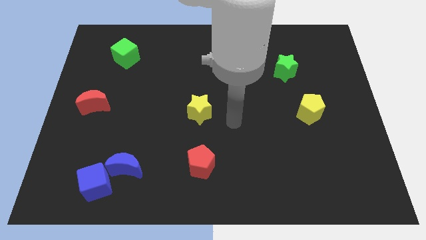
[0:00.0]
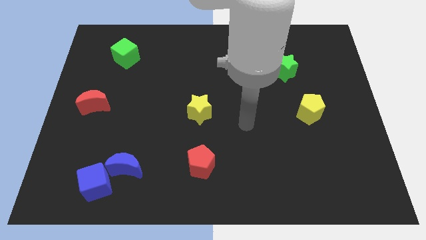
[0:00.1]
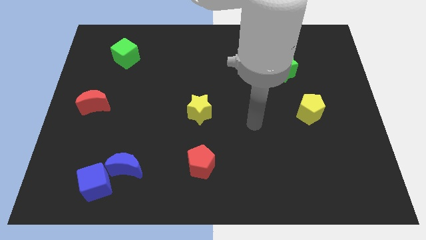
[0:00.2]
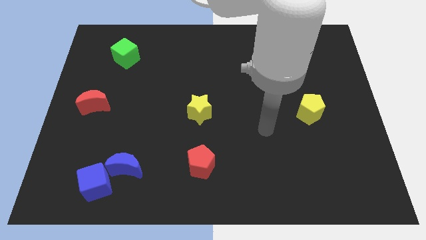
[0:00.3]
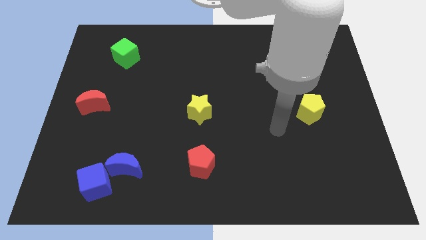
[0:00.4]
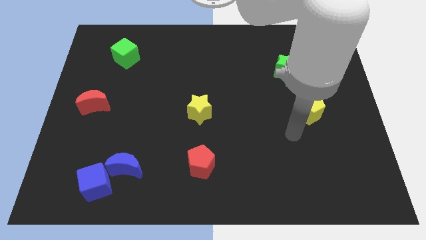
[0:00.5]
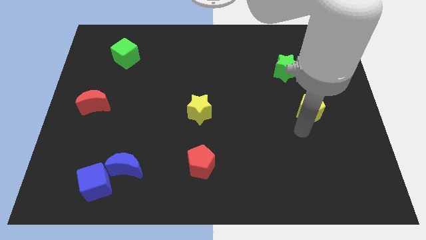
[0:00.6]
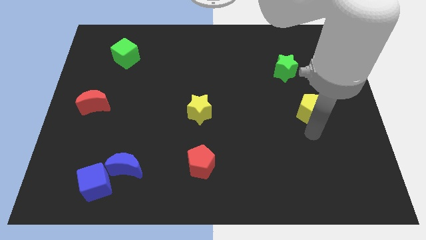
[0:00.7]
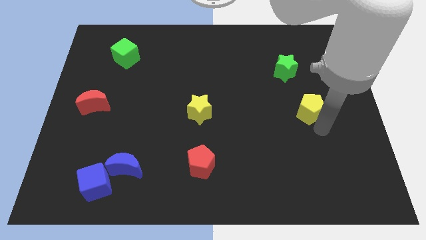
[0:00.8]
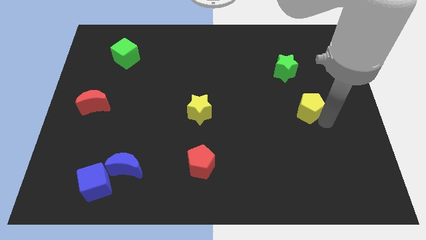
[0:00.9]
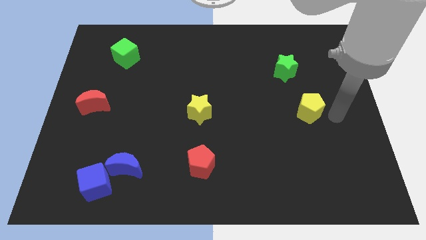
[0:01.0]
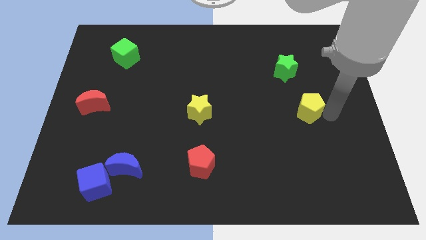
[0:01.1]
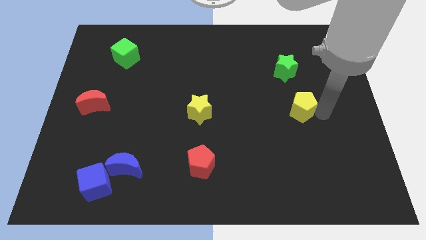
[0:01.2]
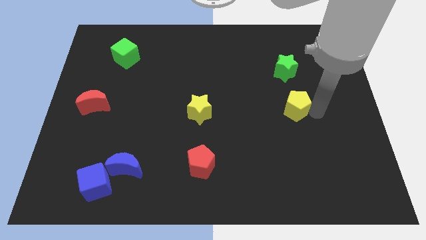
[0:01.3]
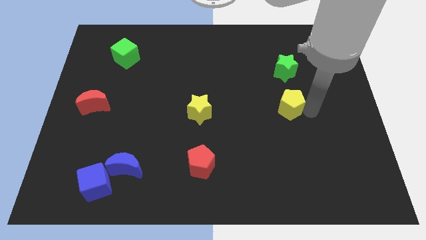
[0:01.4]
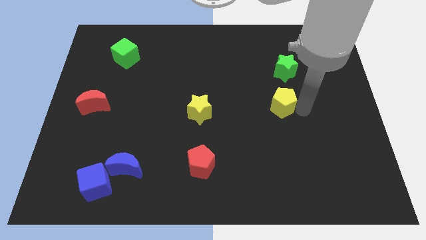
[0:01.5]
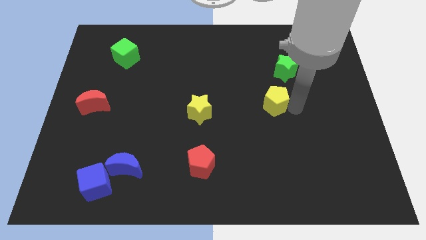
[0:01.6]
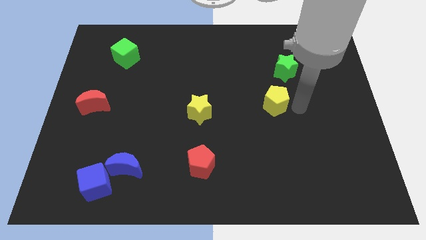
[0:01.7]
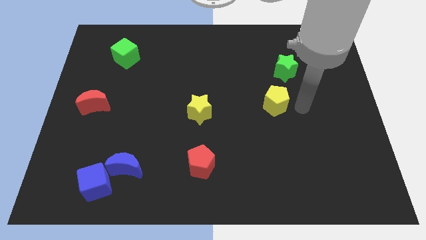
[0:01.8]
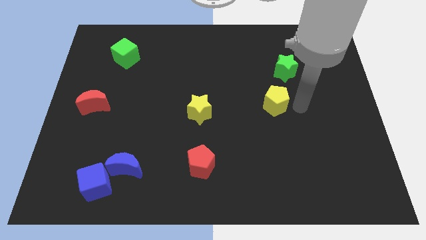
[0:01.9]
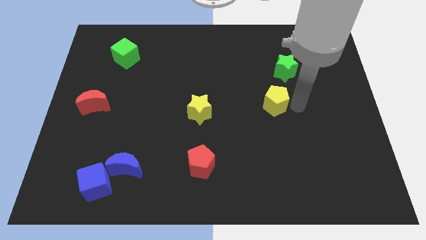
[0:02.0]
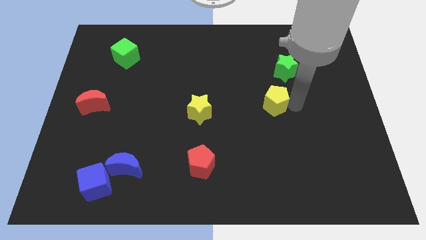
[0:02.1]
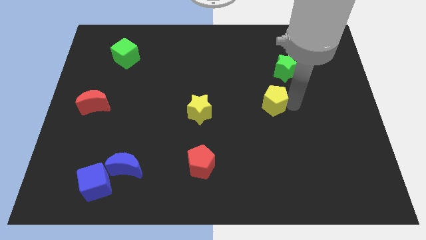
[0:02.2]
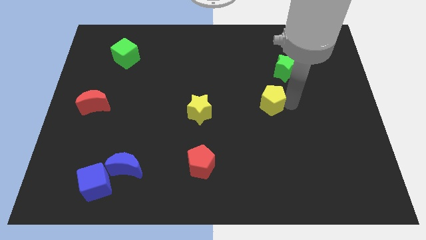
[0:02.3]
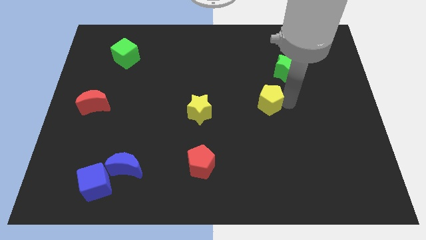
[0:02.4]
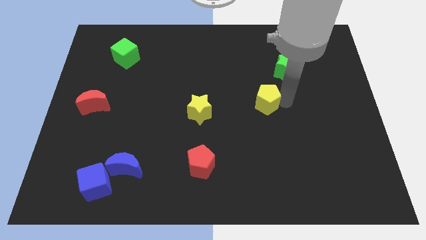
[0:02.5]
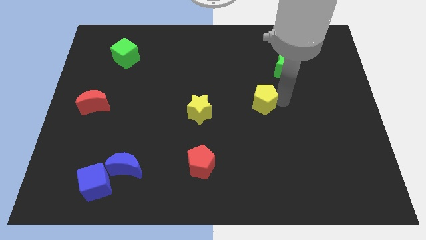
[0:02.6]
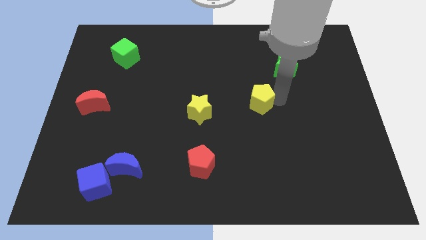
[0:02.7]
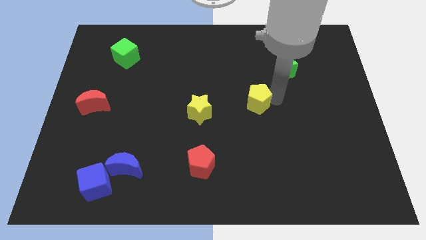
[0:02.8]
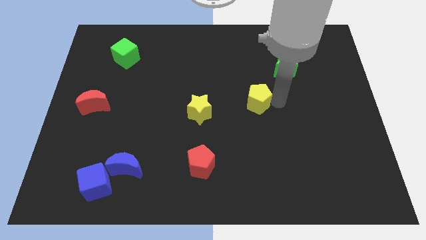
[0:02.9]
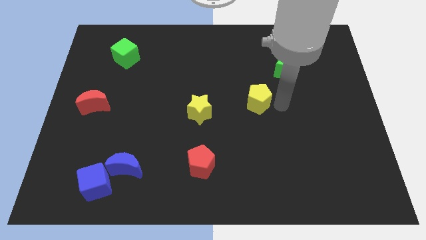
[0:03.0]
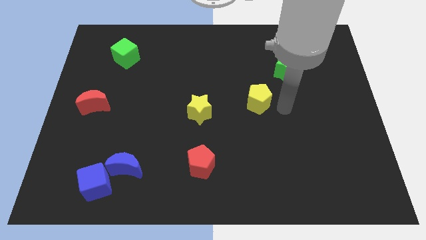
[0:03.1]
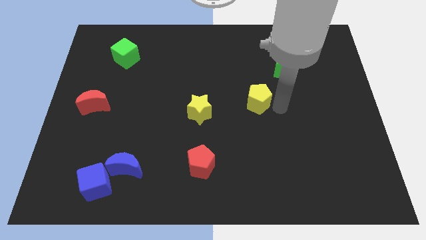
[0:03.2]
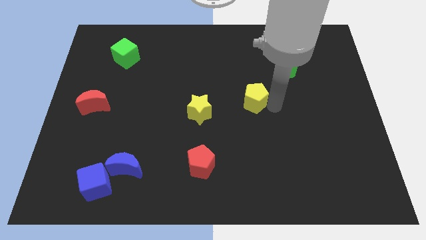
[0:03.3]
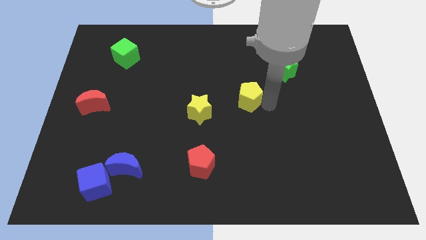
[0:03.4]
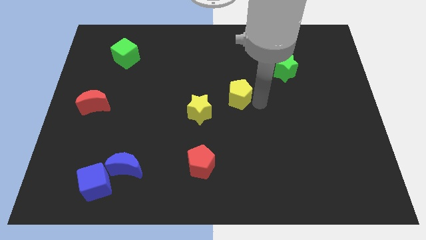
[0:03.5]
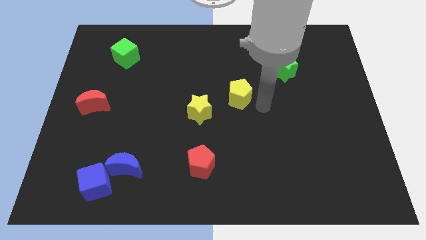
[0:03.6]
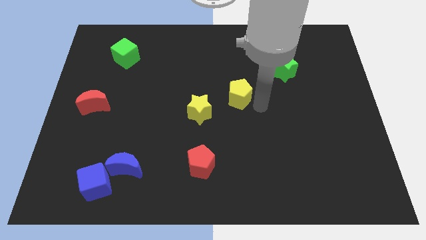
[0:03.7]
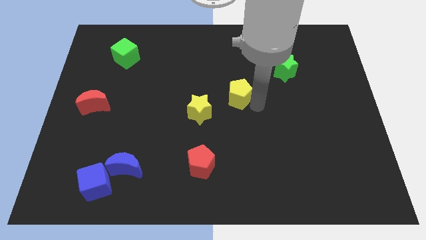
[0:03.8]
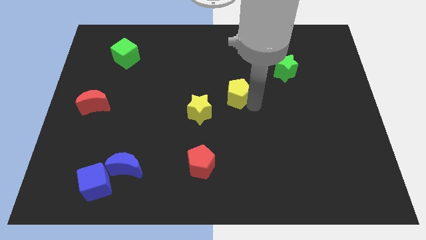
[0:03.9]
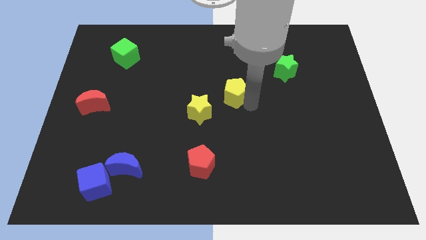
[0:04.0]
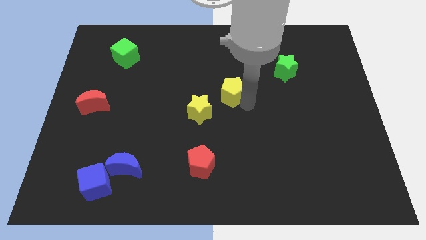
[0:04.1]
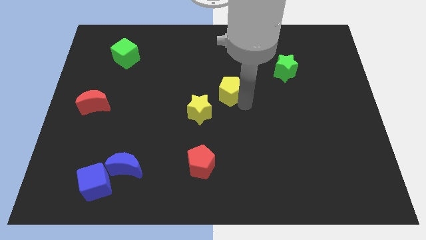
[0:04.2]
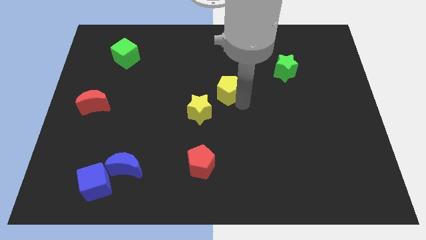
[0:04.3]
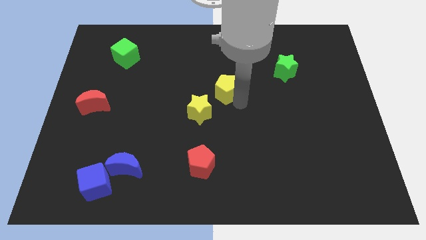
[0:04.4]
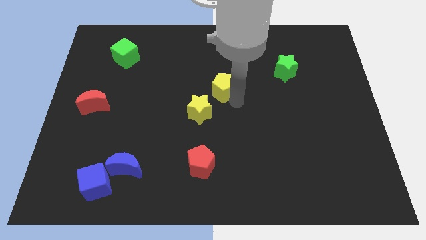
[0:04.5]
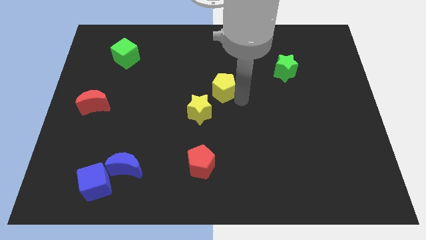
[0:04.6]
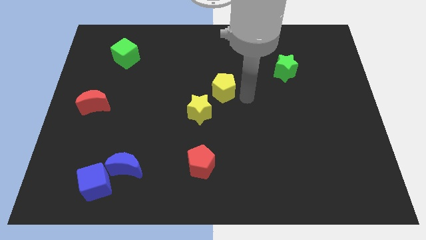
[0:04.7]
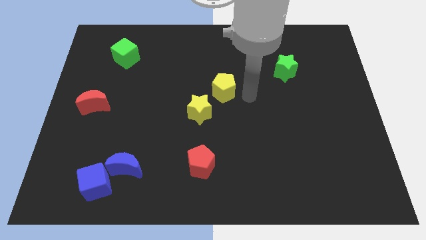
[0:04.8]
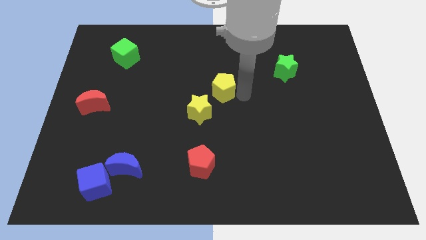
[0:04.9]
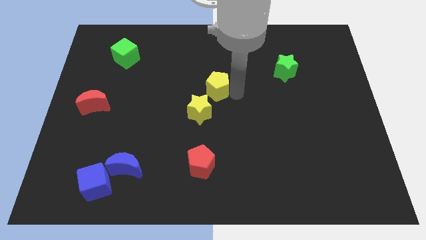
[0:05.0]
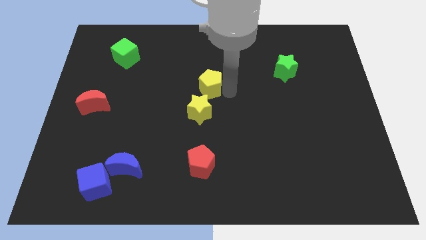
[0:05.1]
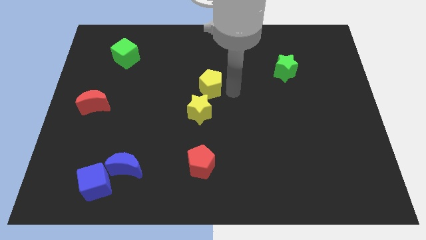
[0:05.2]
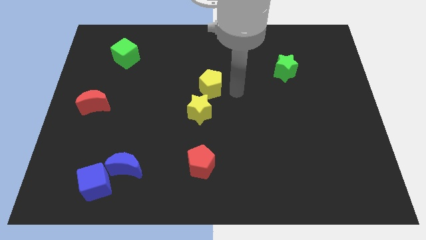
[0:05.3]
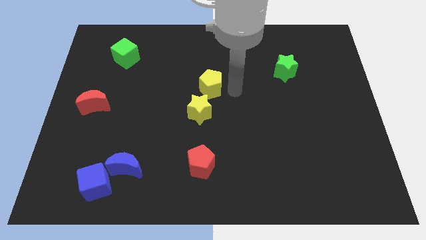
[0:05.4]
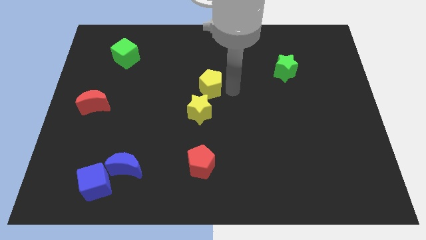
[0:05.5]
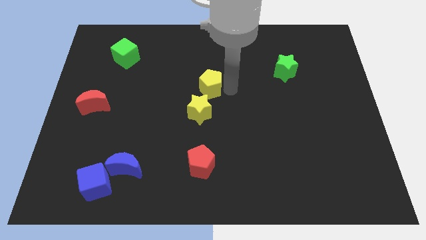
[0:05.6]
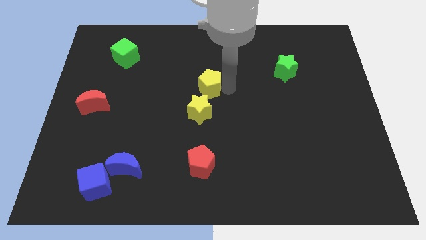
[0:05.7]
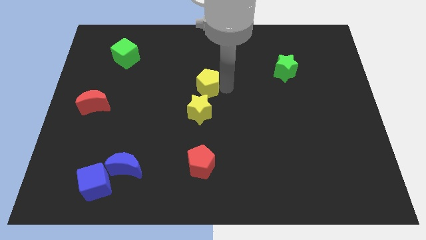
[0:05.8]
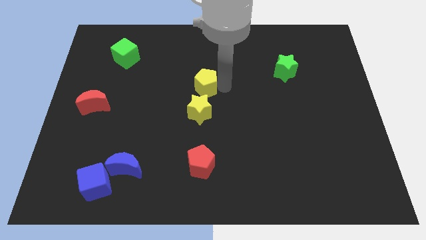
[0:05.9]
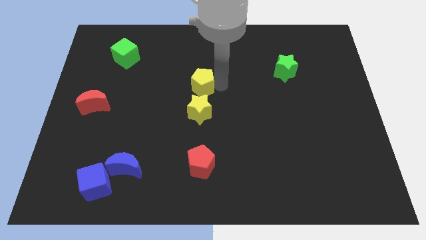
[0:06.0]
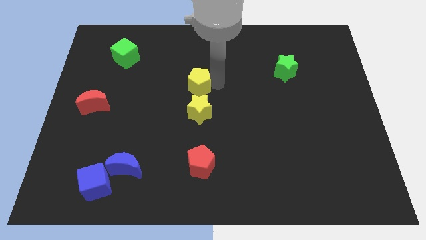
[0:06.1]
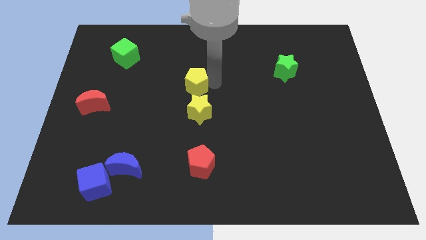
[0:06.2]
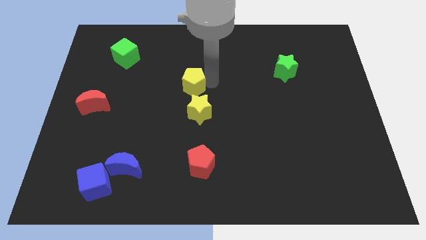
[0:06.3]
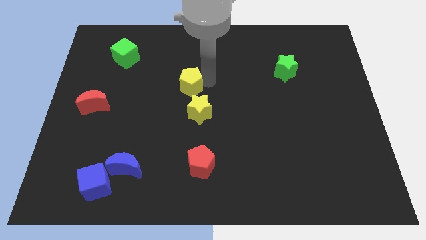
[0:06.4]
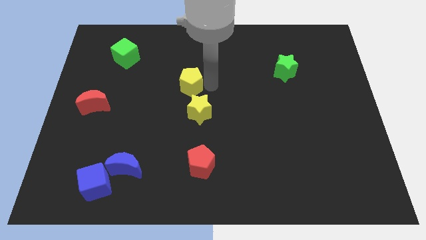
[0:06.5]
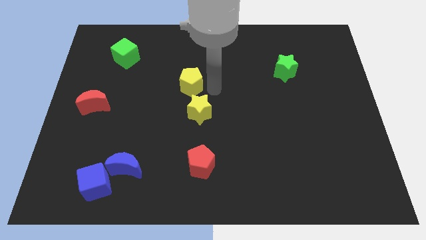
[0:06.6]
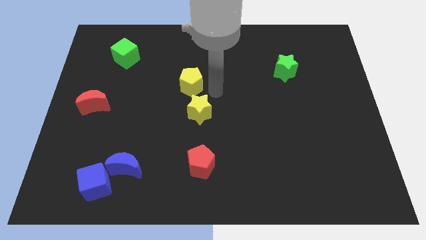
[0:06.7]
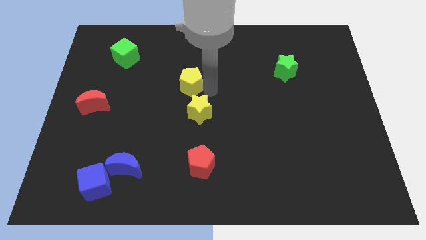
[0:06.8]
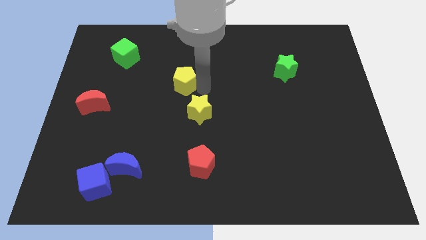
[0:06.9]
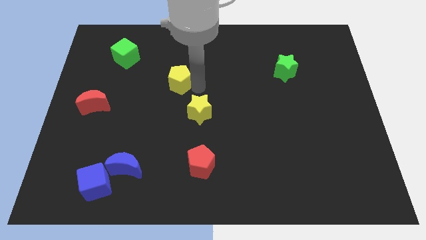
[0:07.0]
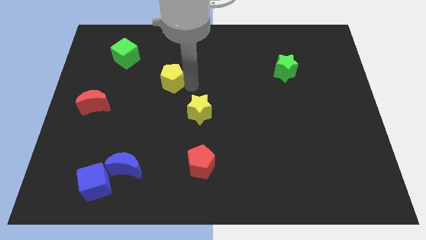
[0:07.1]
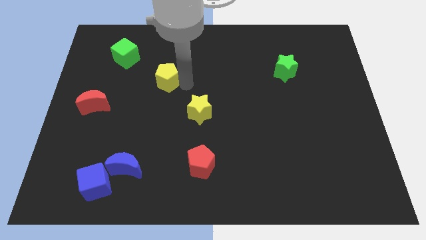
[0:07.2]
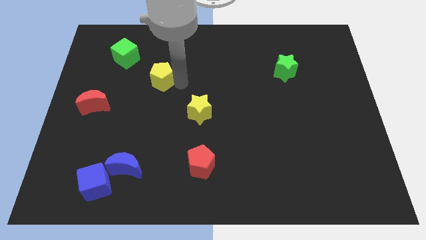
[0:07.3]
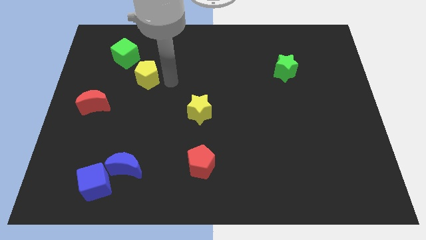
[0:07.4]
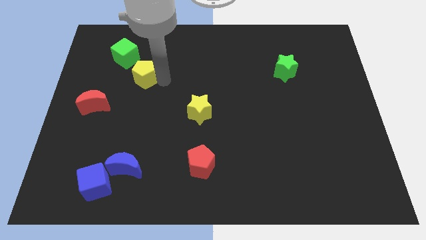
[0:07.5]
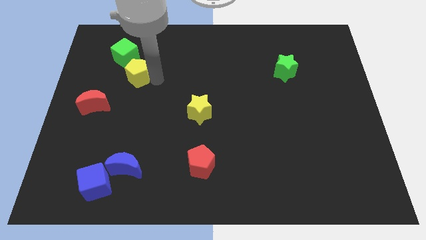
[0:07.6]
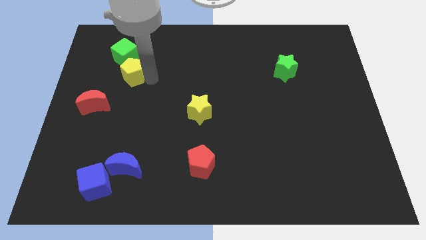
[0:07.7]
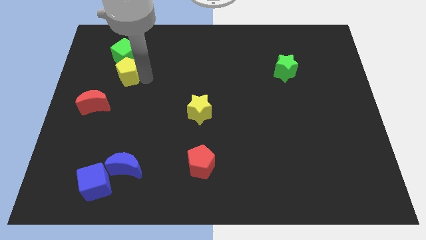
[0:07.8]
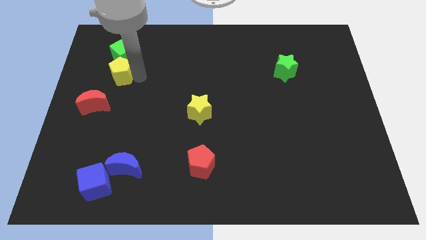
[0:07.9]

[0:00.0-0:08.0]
push the yellow pentagon to the bottom left side of the green cube
